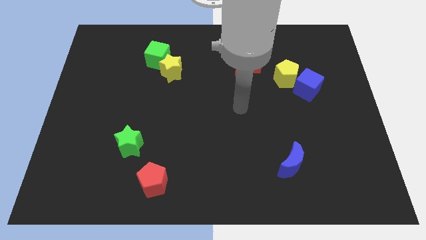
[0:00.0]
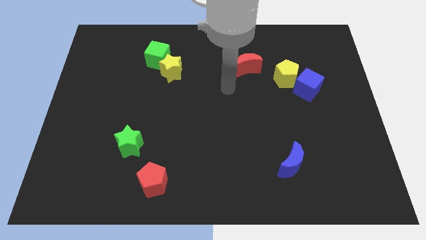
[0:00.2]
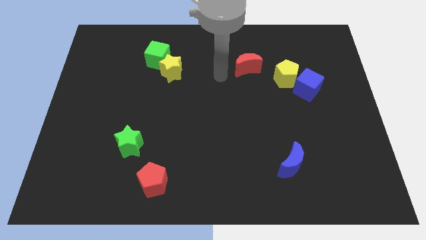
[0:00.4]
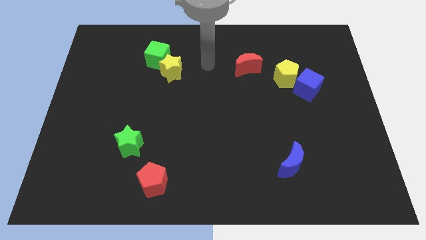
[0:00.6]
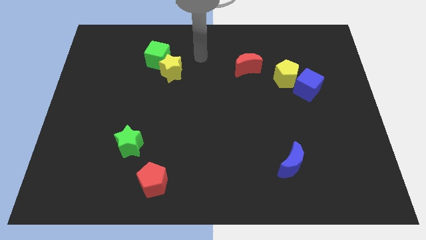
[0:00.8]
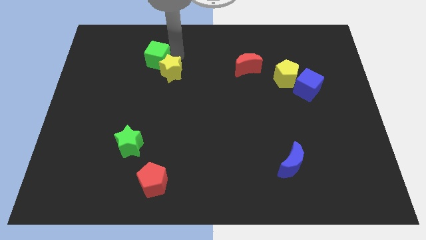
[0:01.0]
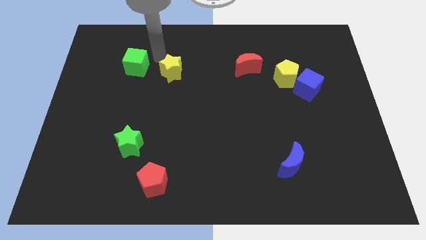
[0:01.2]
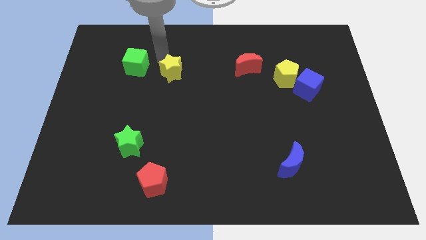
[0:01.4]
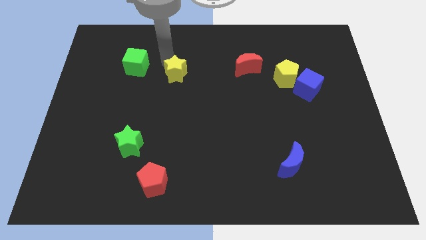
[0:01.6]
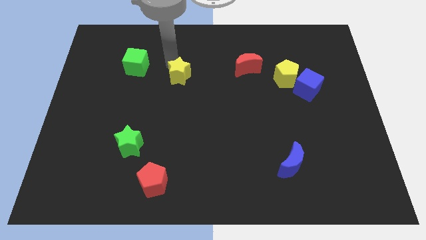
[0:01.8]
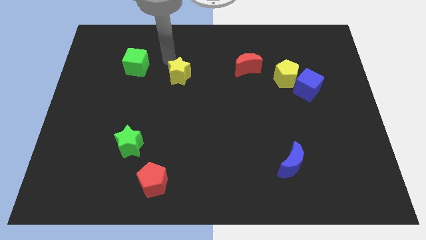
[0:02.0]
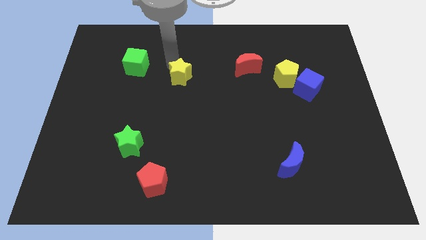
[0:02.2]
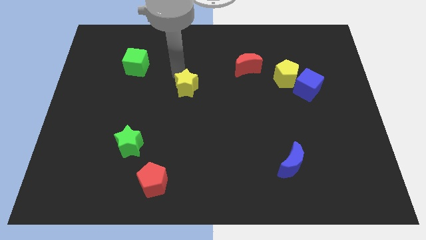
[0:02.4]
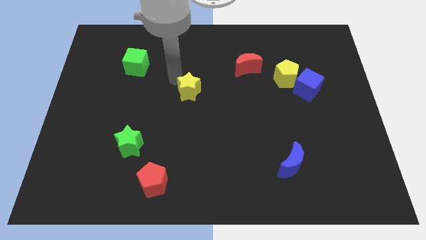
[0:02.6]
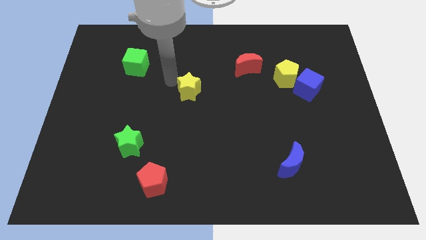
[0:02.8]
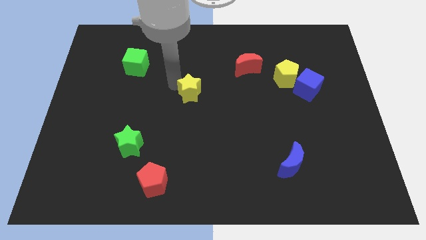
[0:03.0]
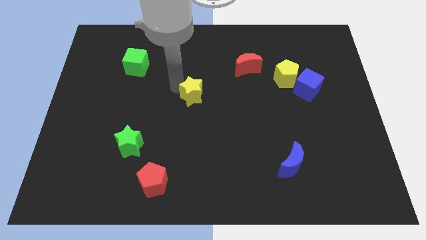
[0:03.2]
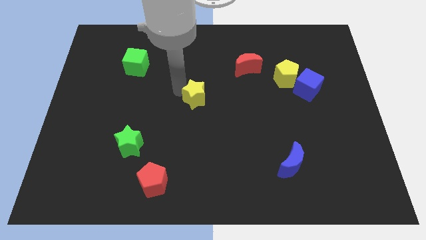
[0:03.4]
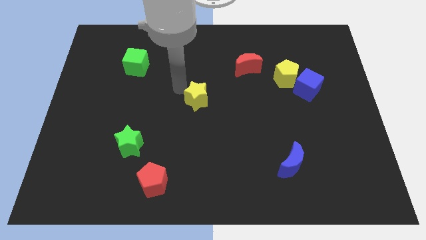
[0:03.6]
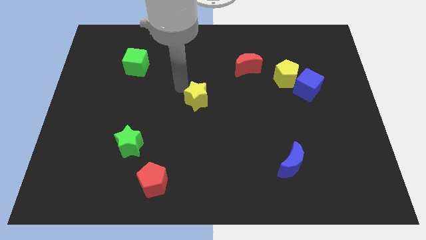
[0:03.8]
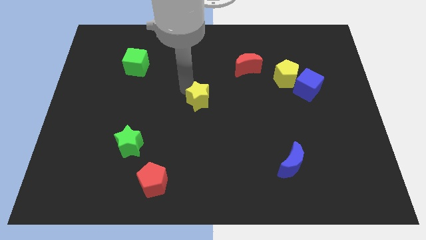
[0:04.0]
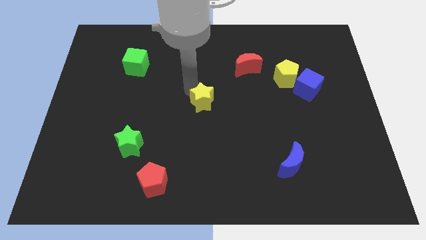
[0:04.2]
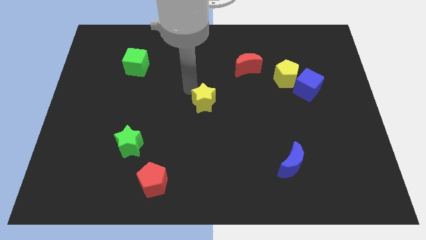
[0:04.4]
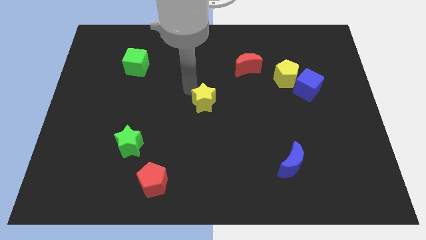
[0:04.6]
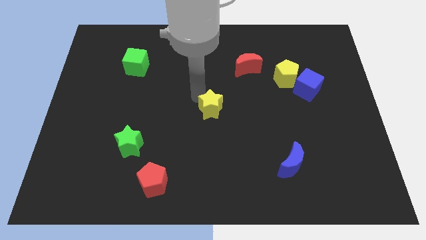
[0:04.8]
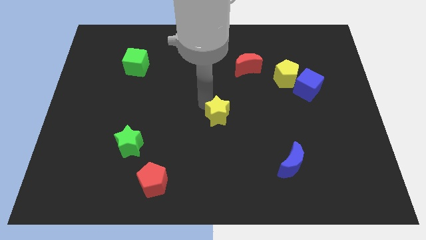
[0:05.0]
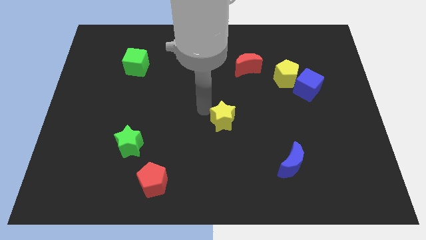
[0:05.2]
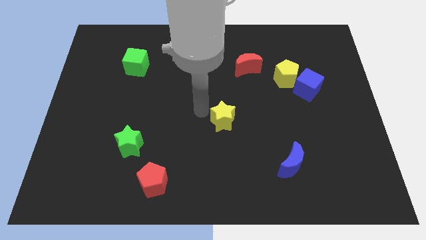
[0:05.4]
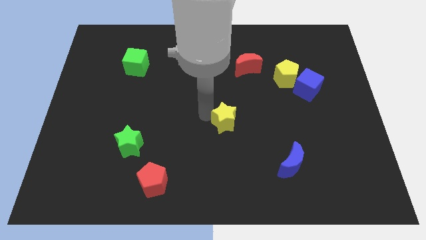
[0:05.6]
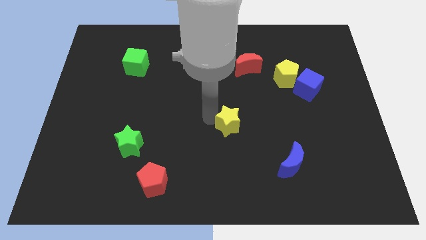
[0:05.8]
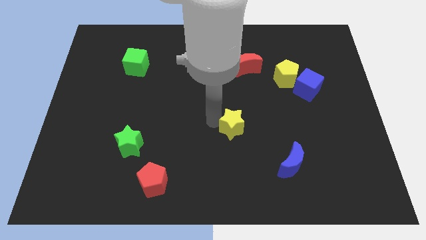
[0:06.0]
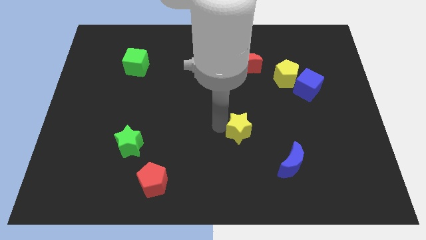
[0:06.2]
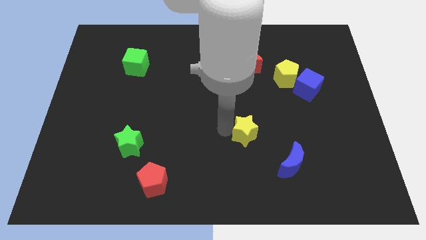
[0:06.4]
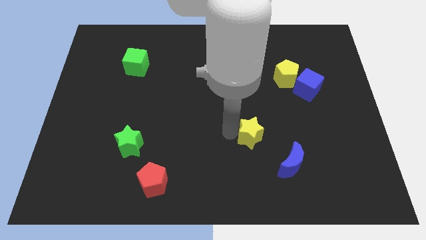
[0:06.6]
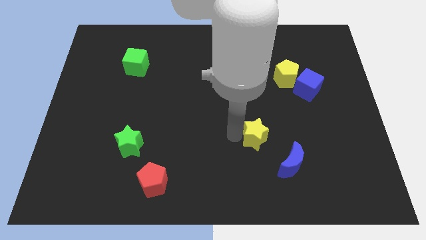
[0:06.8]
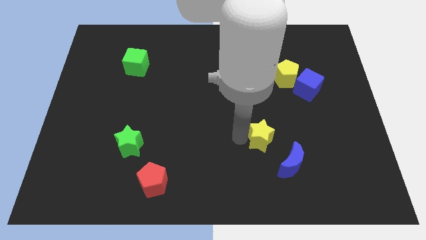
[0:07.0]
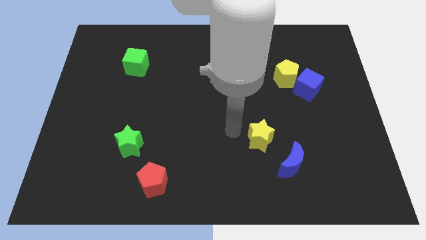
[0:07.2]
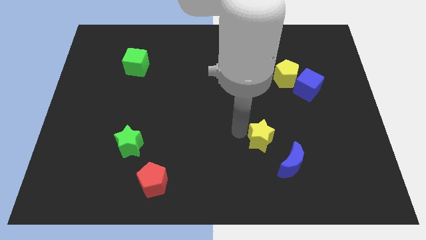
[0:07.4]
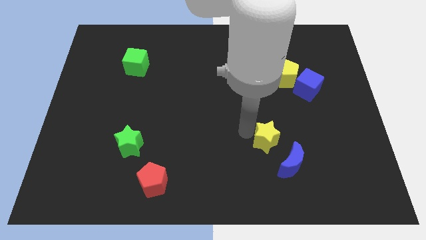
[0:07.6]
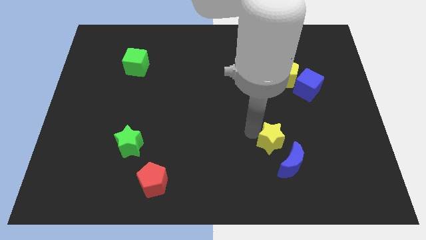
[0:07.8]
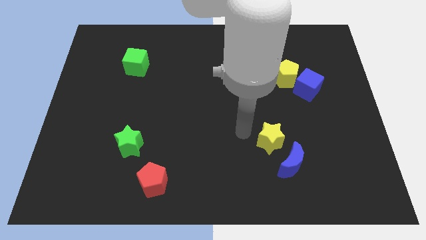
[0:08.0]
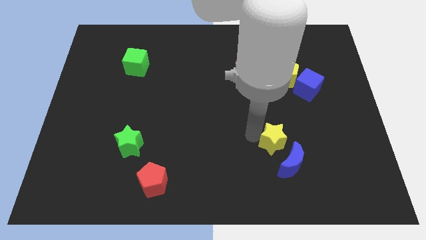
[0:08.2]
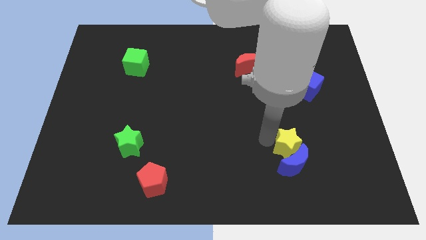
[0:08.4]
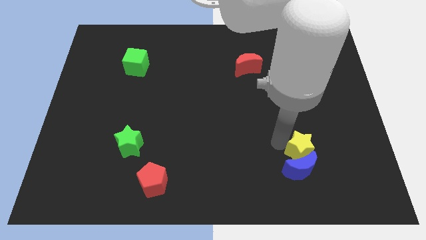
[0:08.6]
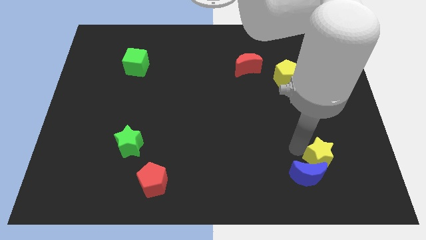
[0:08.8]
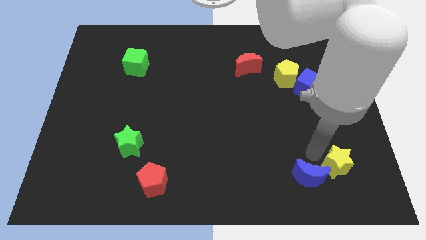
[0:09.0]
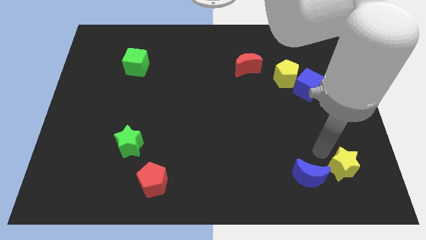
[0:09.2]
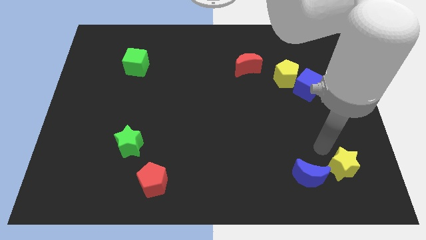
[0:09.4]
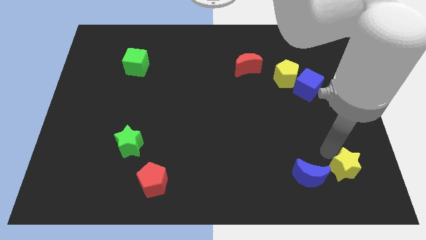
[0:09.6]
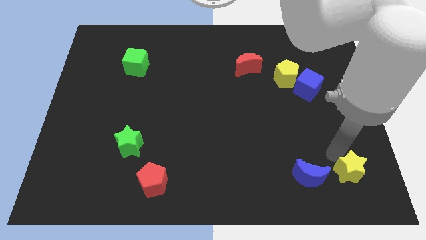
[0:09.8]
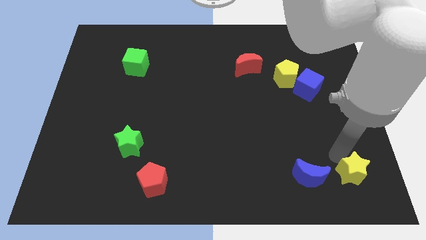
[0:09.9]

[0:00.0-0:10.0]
move the yellow star to the bottom right

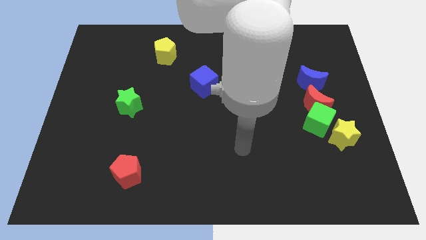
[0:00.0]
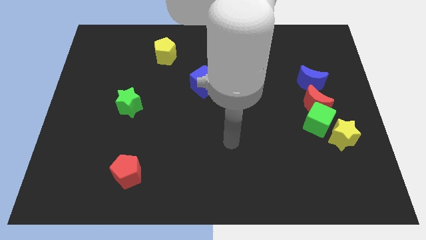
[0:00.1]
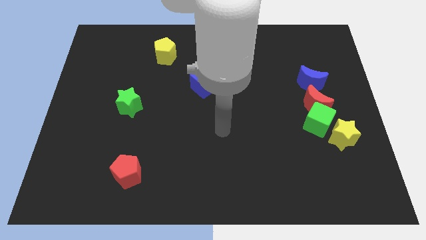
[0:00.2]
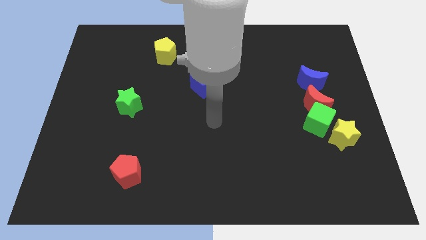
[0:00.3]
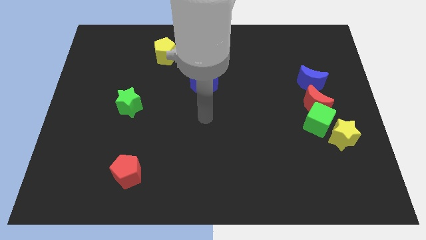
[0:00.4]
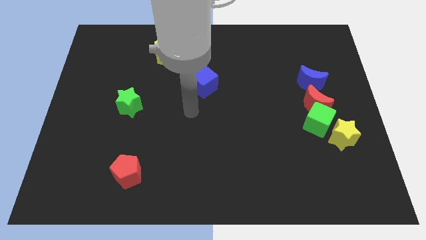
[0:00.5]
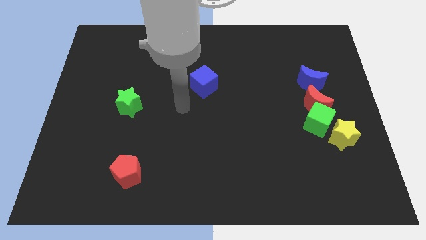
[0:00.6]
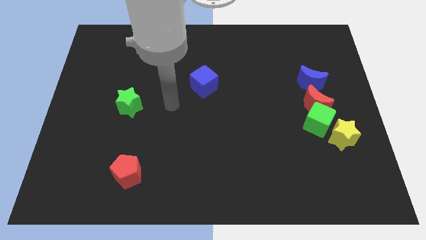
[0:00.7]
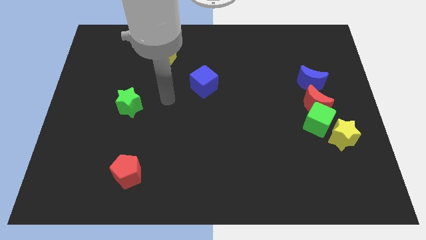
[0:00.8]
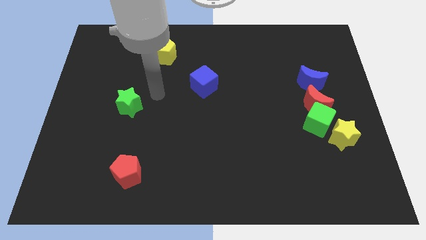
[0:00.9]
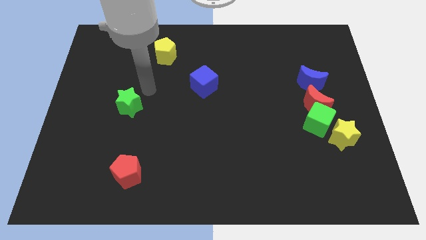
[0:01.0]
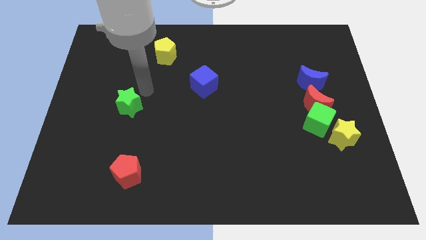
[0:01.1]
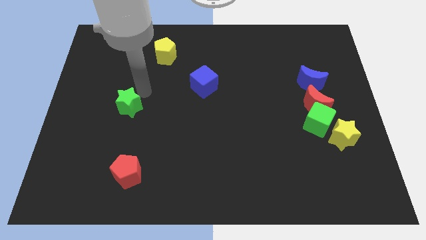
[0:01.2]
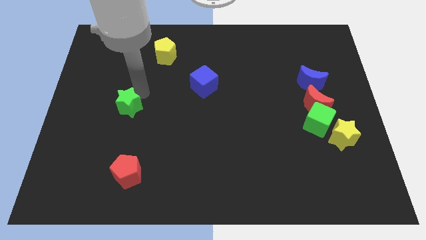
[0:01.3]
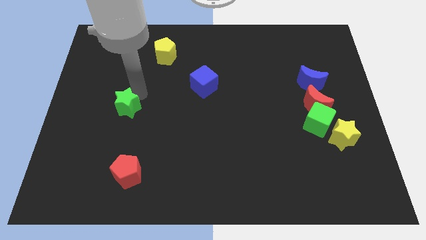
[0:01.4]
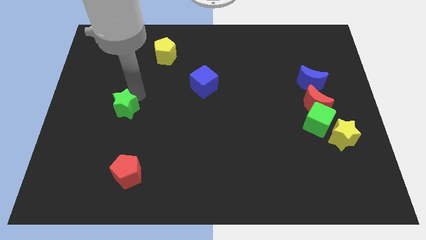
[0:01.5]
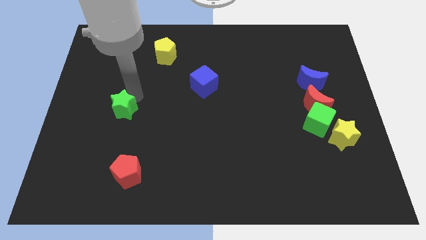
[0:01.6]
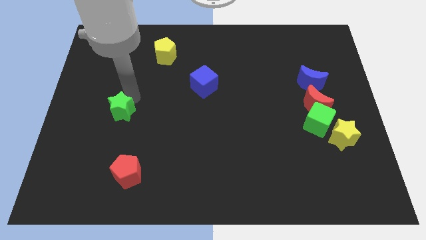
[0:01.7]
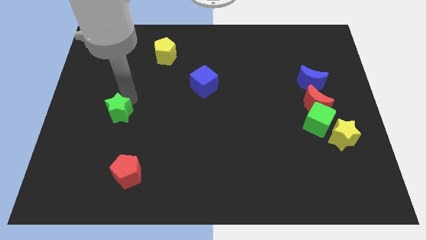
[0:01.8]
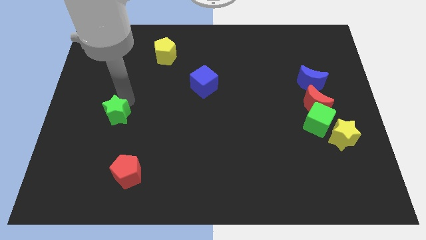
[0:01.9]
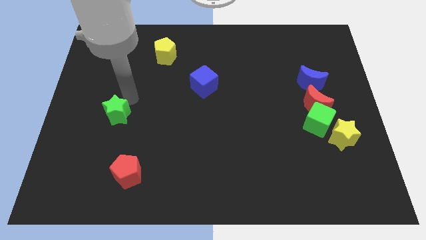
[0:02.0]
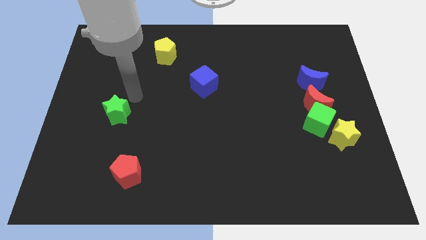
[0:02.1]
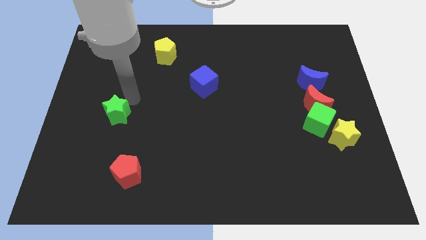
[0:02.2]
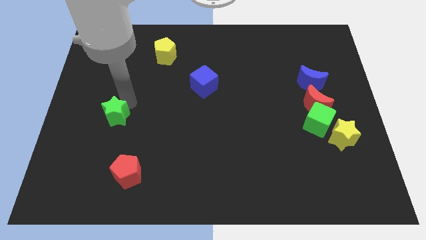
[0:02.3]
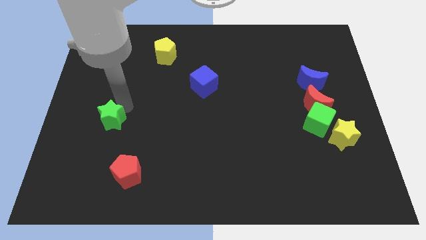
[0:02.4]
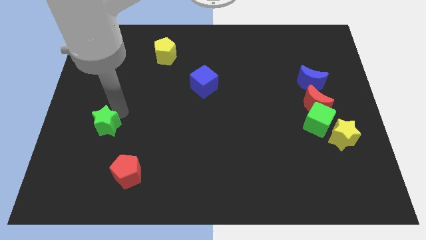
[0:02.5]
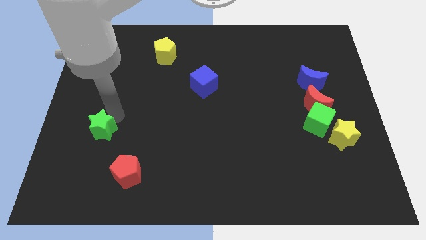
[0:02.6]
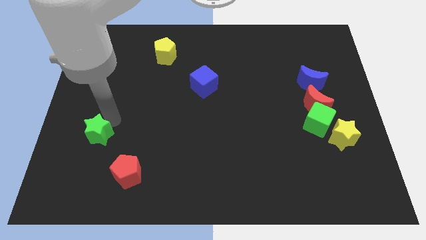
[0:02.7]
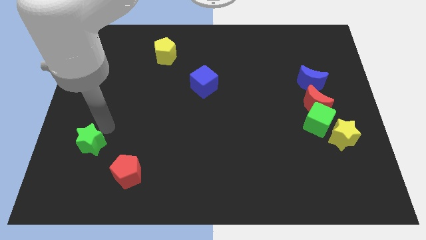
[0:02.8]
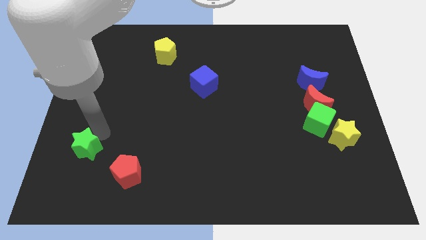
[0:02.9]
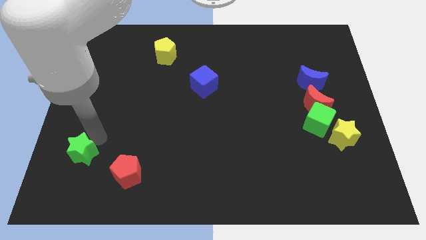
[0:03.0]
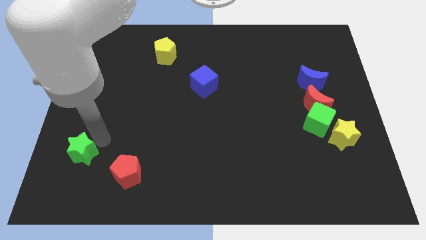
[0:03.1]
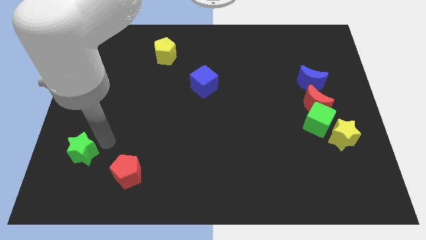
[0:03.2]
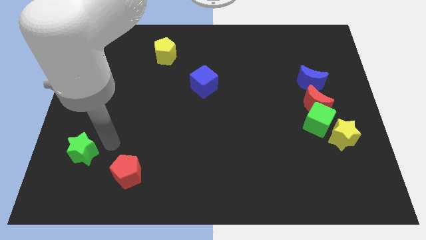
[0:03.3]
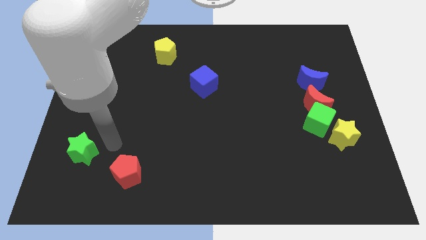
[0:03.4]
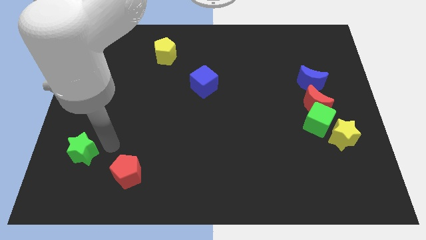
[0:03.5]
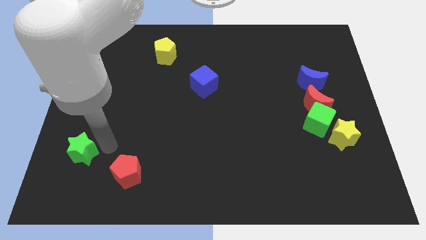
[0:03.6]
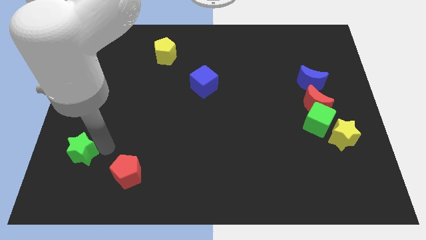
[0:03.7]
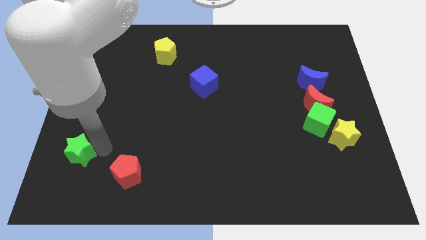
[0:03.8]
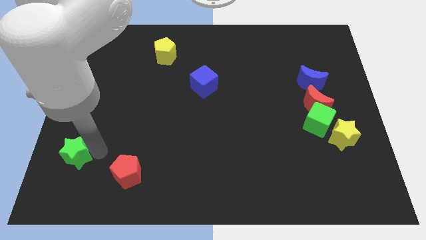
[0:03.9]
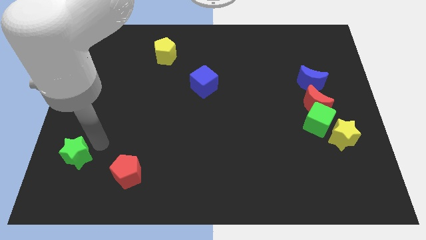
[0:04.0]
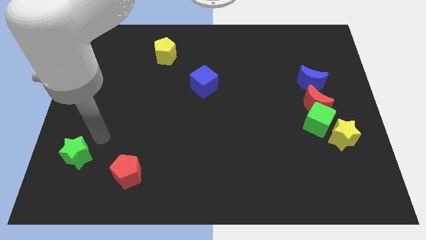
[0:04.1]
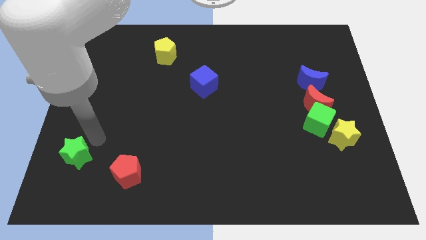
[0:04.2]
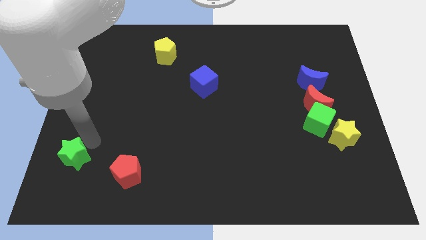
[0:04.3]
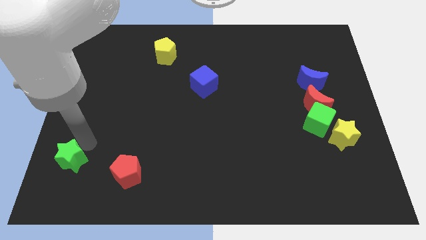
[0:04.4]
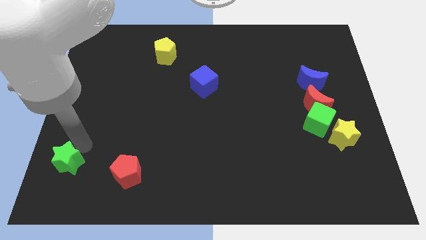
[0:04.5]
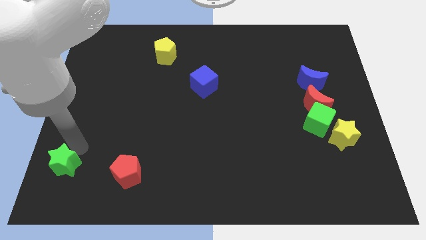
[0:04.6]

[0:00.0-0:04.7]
push the green star to the bottom left corner
